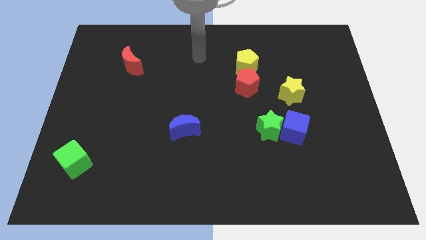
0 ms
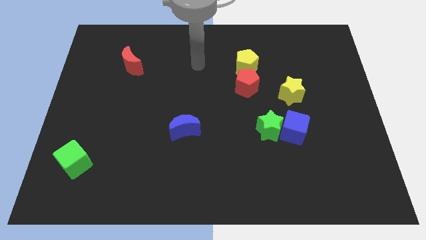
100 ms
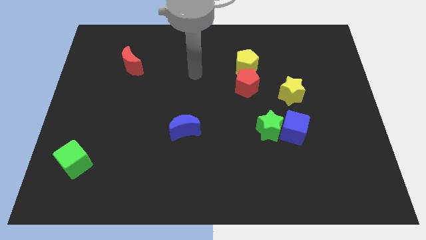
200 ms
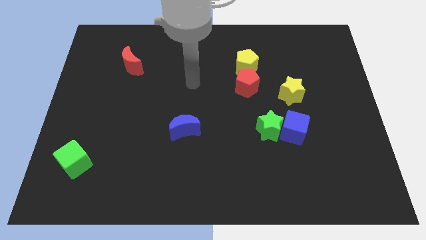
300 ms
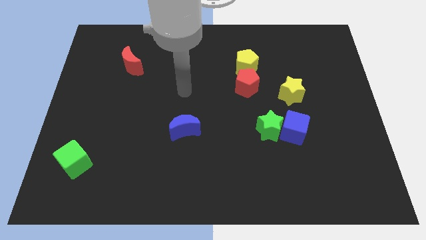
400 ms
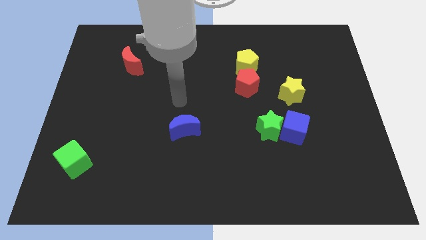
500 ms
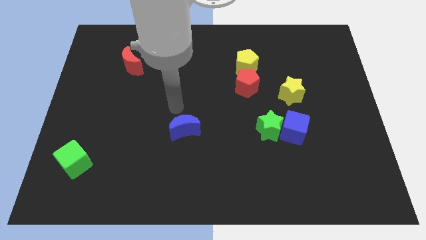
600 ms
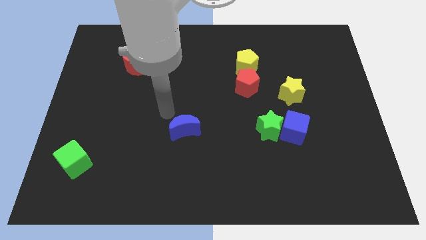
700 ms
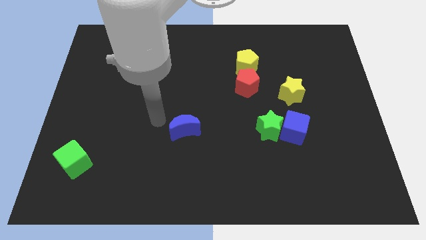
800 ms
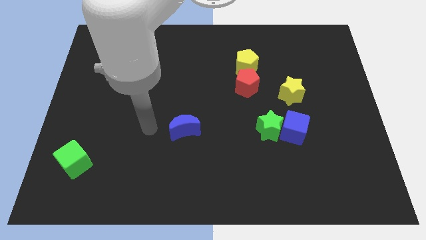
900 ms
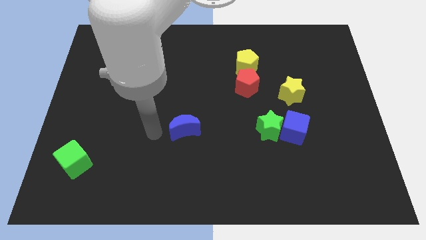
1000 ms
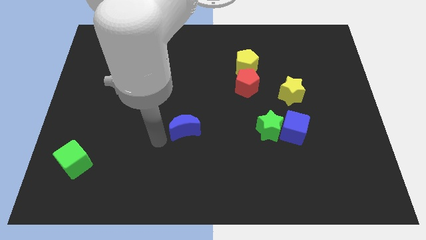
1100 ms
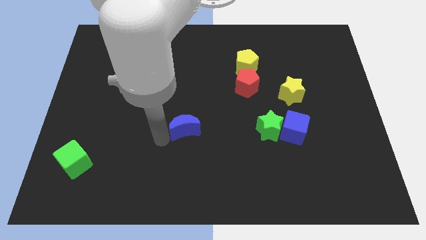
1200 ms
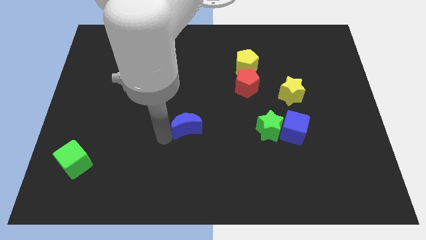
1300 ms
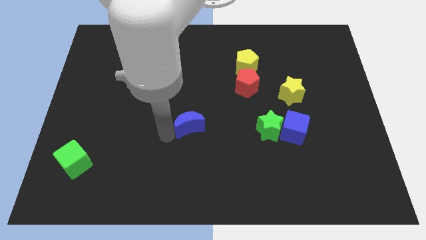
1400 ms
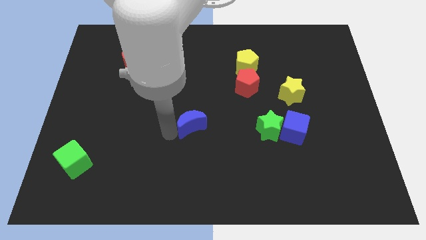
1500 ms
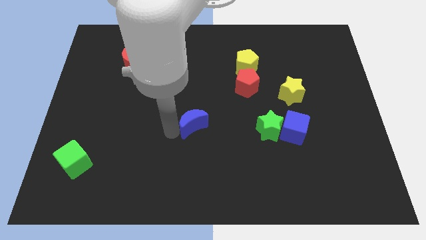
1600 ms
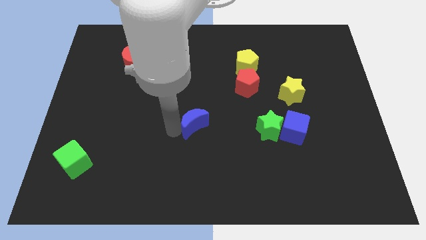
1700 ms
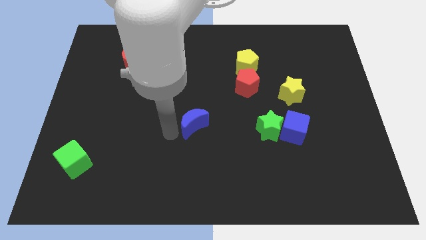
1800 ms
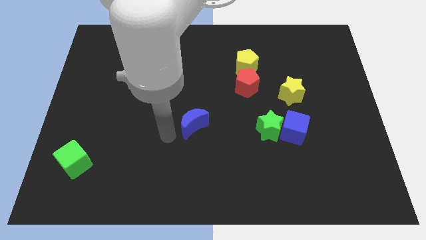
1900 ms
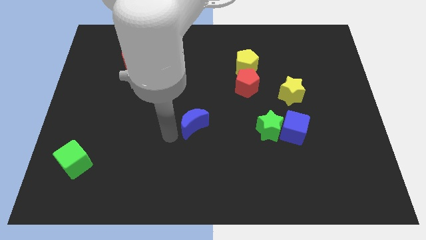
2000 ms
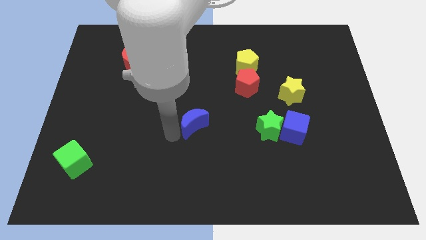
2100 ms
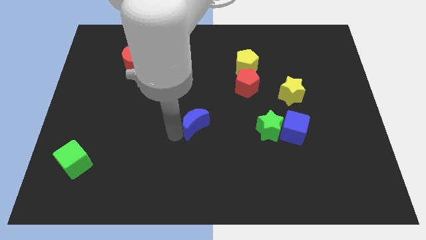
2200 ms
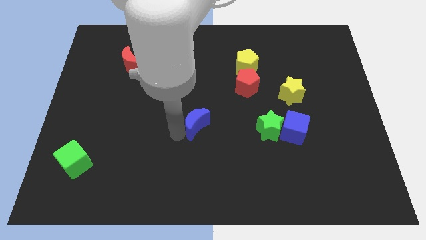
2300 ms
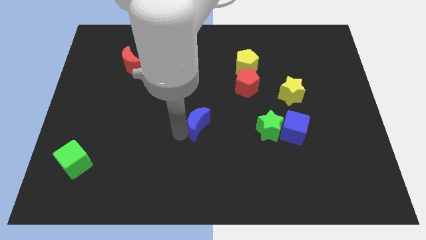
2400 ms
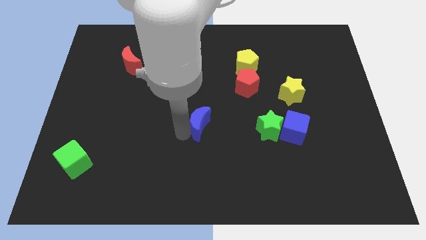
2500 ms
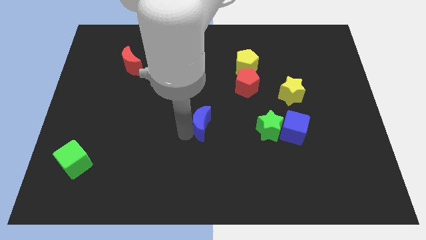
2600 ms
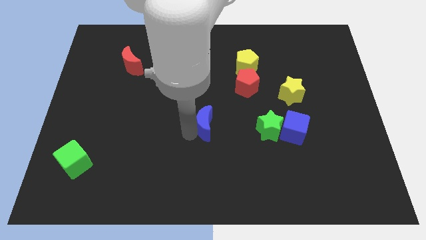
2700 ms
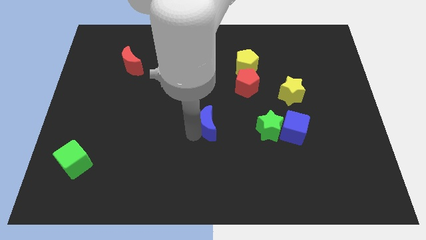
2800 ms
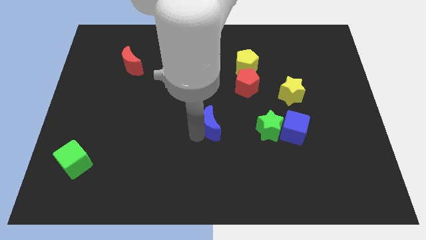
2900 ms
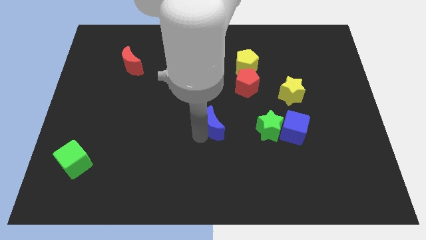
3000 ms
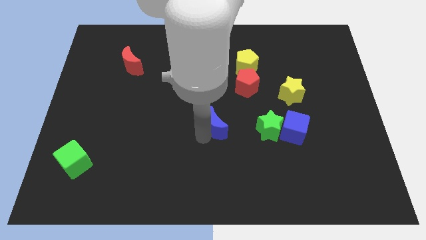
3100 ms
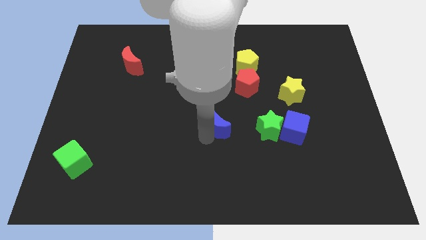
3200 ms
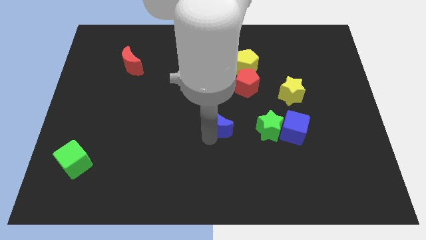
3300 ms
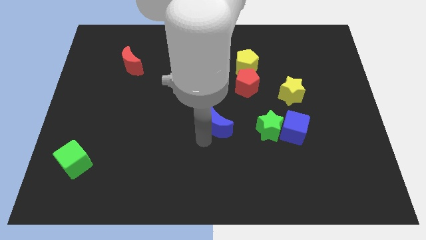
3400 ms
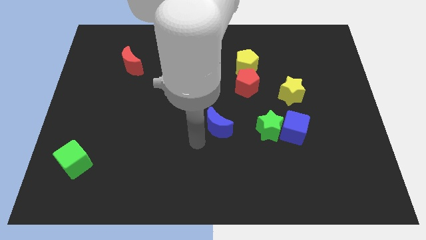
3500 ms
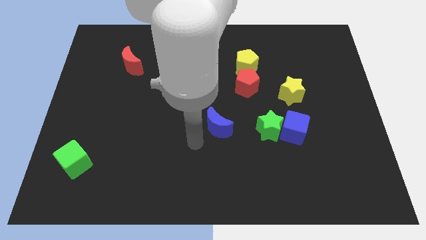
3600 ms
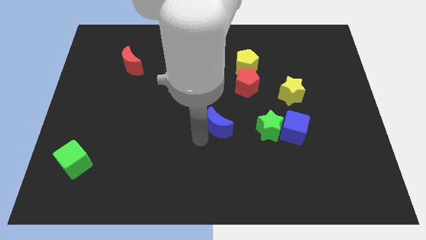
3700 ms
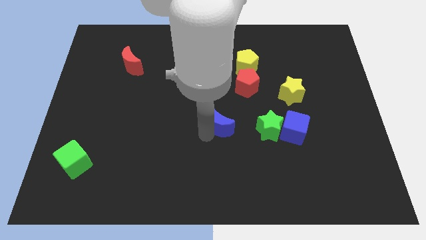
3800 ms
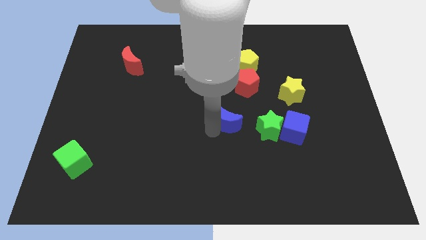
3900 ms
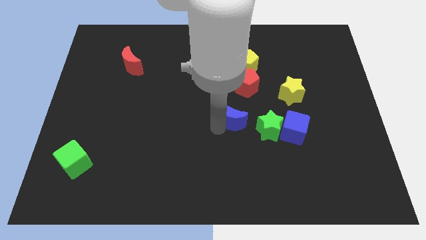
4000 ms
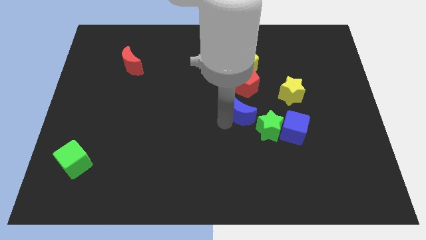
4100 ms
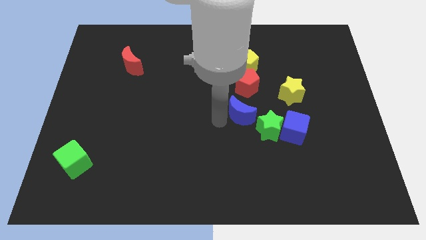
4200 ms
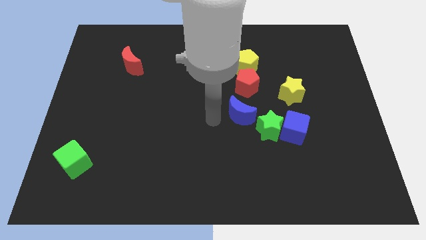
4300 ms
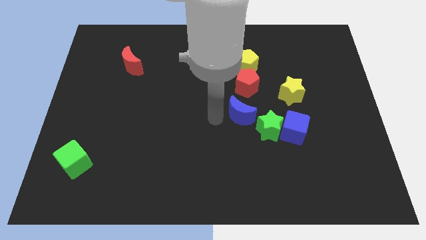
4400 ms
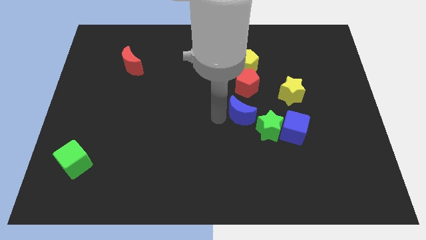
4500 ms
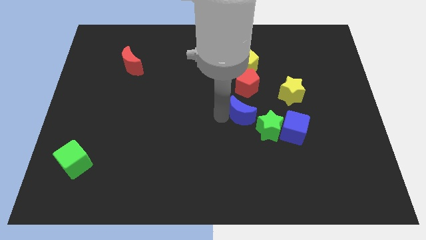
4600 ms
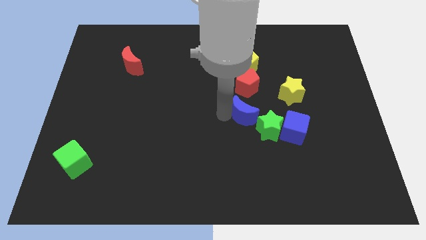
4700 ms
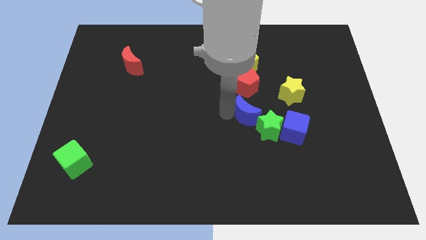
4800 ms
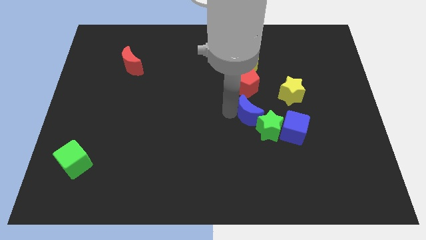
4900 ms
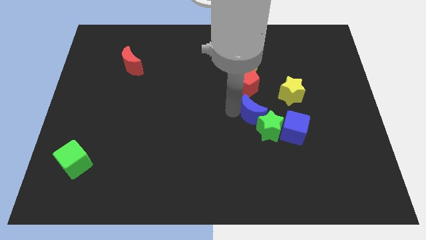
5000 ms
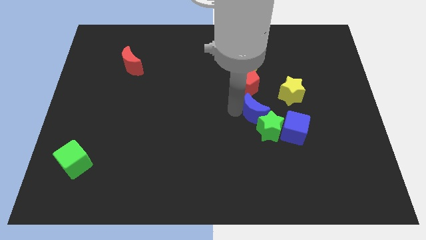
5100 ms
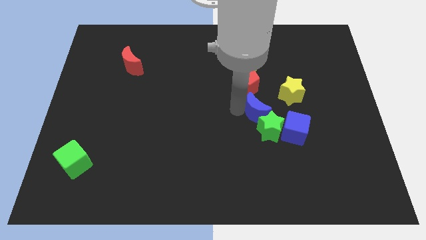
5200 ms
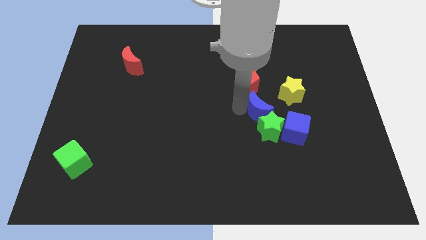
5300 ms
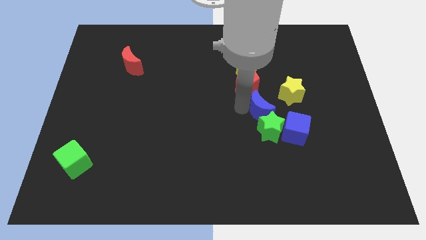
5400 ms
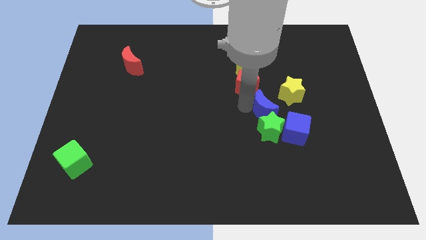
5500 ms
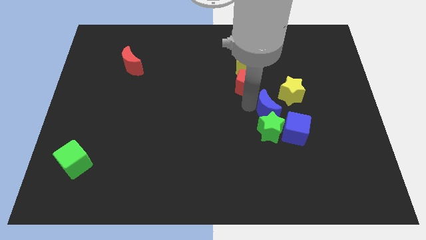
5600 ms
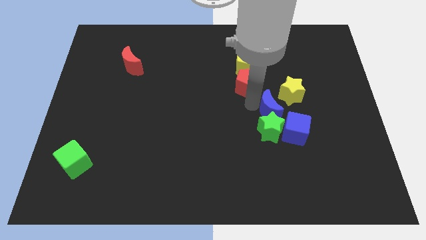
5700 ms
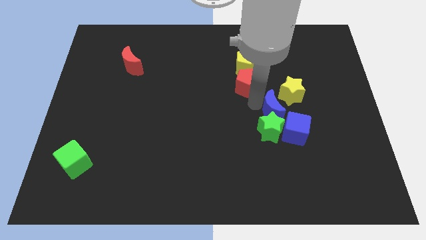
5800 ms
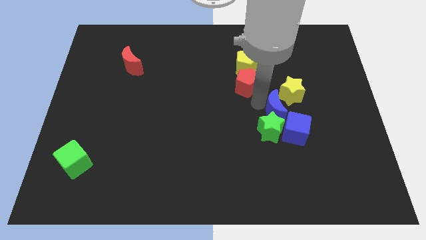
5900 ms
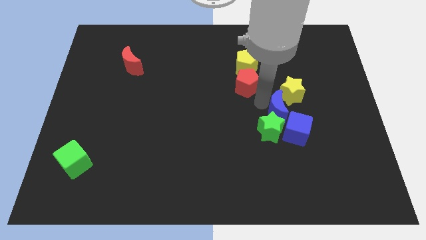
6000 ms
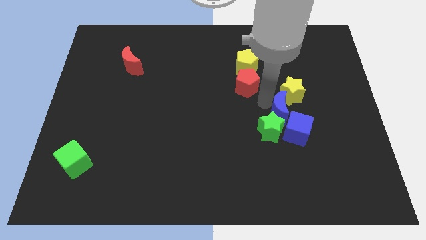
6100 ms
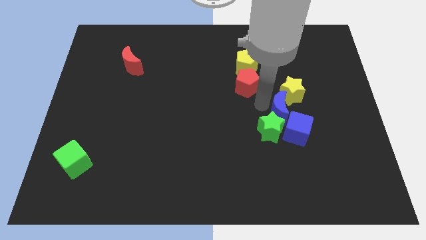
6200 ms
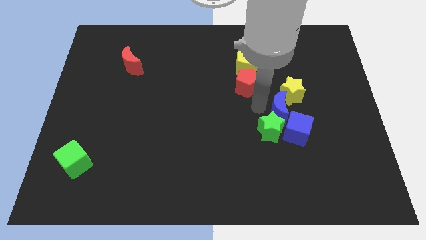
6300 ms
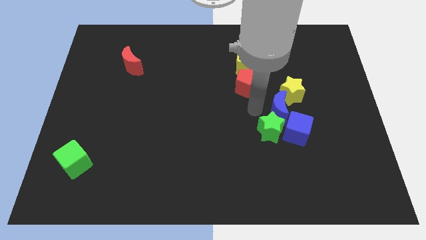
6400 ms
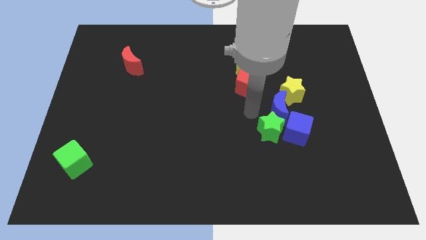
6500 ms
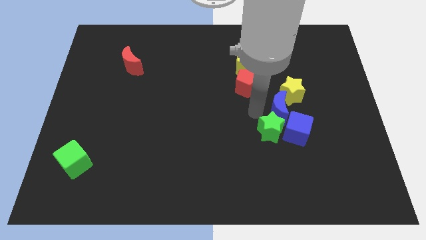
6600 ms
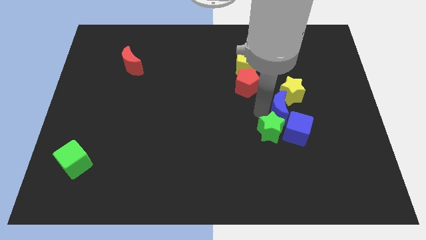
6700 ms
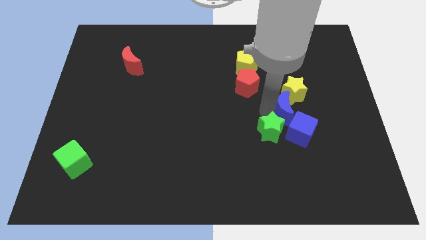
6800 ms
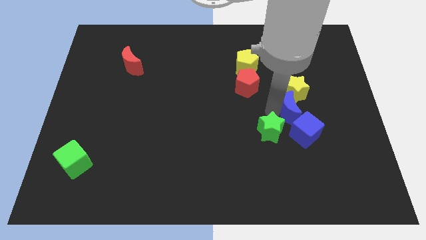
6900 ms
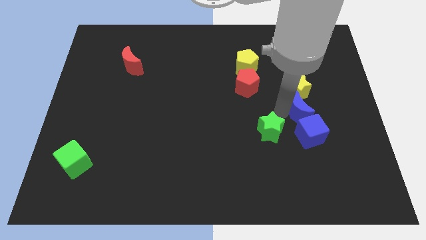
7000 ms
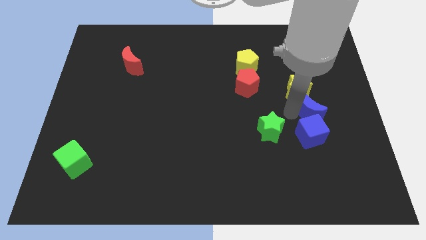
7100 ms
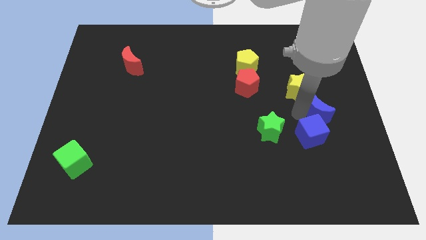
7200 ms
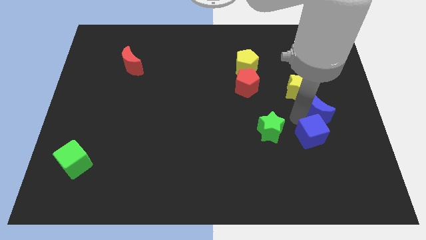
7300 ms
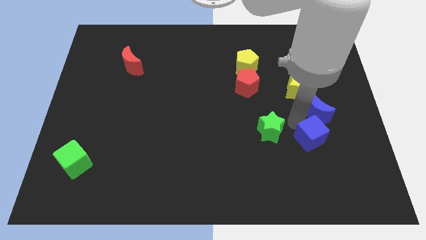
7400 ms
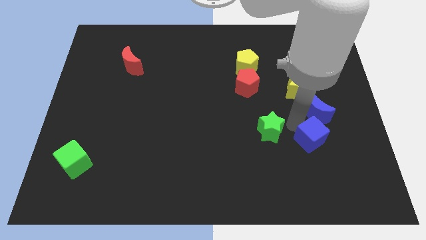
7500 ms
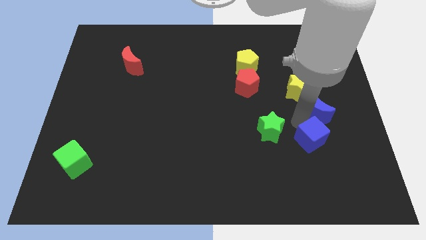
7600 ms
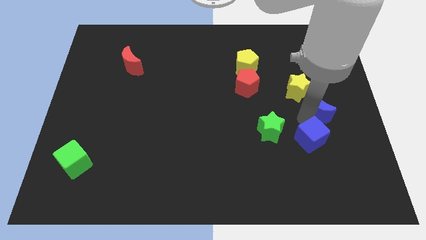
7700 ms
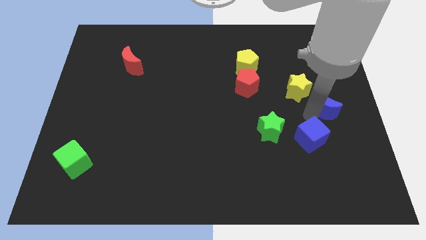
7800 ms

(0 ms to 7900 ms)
put the blue moon to the center right
